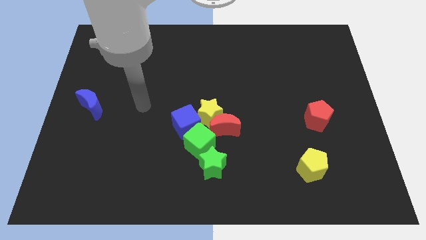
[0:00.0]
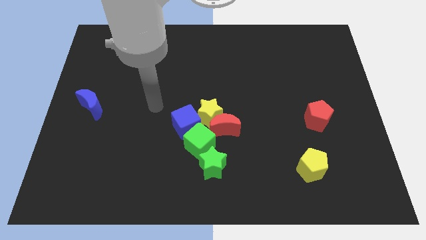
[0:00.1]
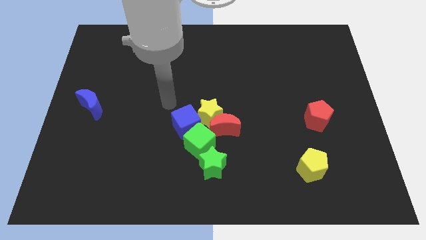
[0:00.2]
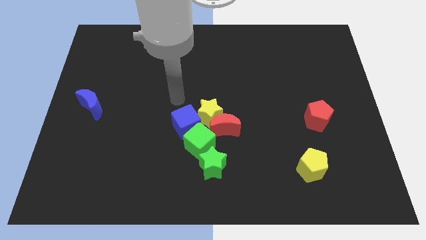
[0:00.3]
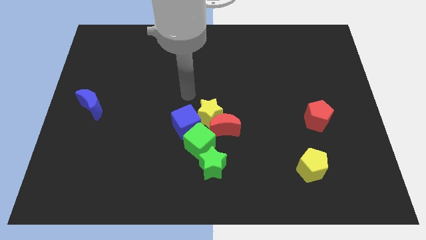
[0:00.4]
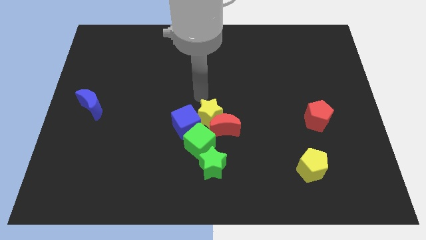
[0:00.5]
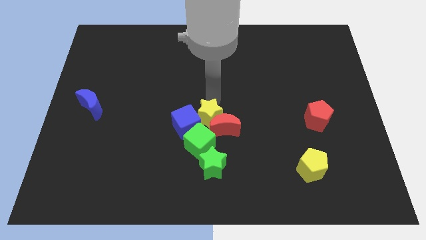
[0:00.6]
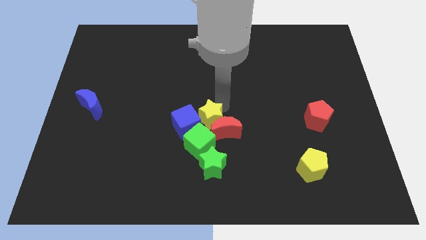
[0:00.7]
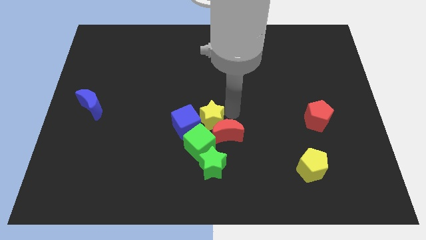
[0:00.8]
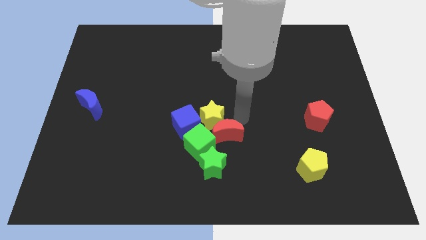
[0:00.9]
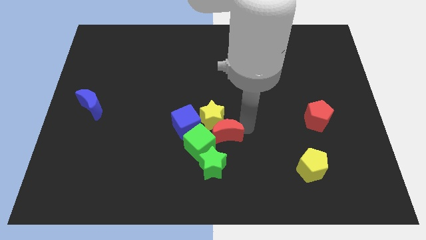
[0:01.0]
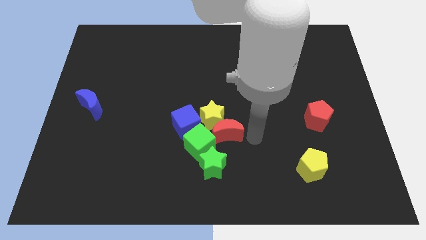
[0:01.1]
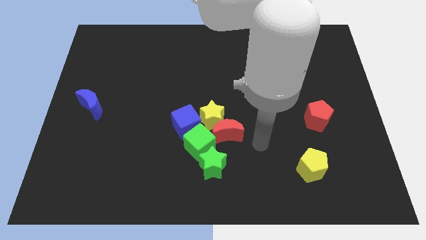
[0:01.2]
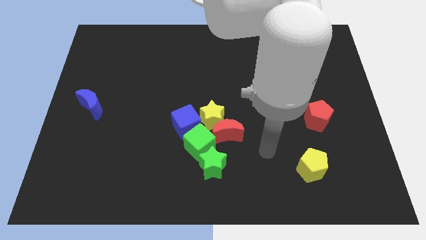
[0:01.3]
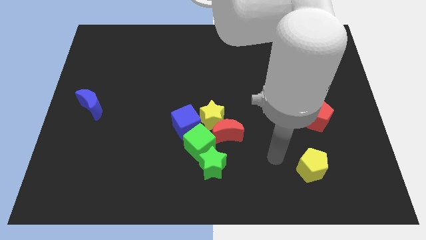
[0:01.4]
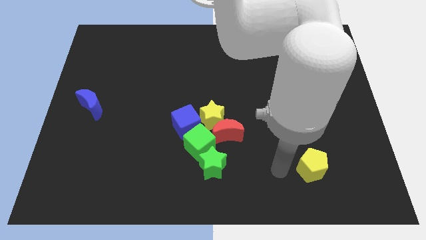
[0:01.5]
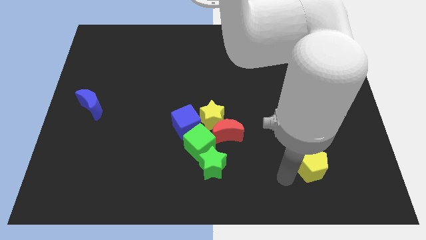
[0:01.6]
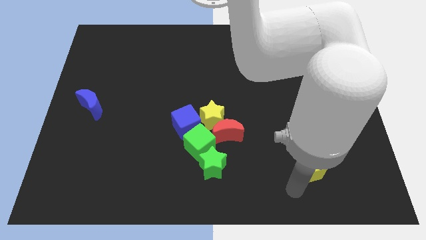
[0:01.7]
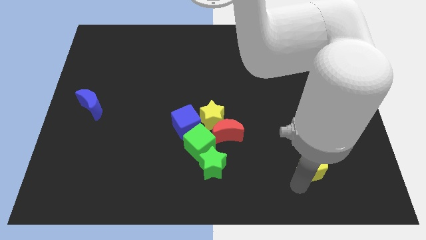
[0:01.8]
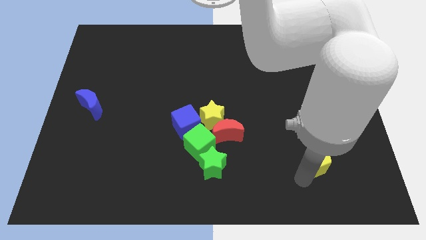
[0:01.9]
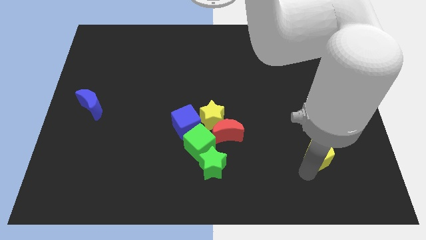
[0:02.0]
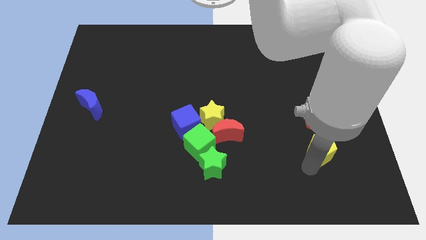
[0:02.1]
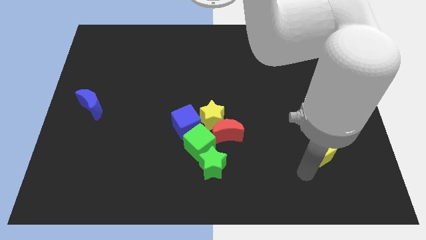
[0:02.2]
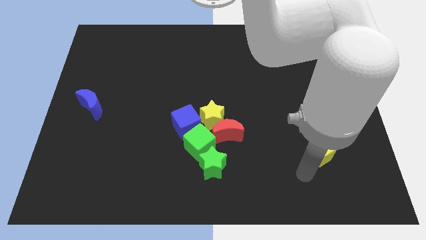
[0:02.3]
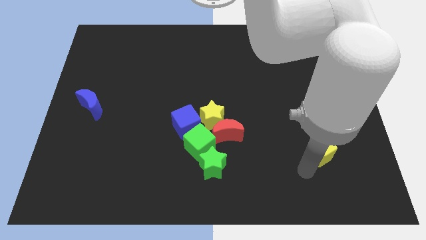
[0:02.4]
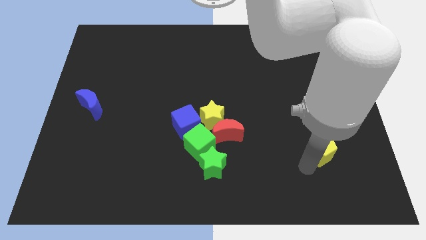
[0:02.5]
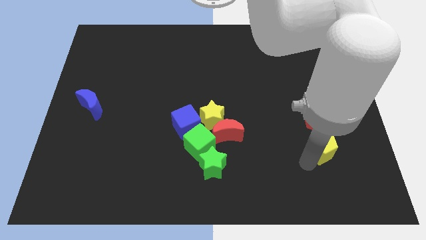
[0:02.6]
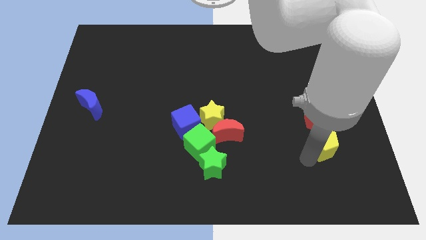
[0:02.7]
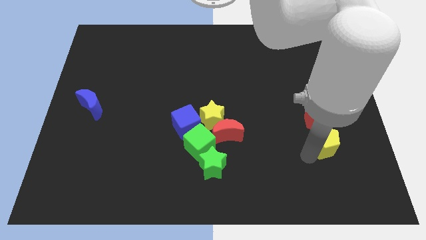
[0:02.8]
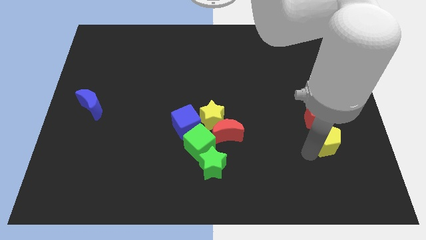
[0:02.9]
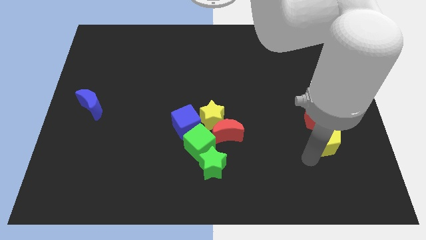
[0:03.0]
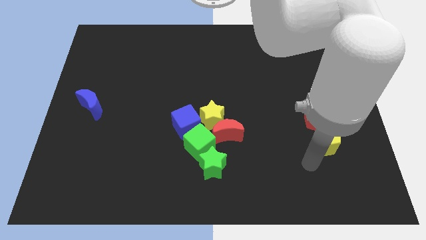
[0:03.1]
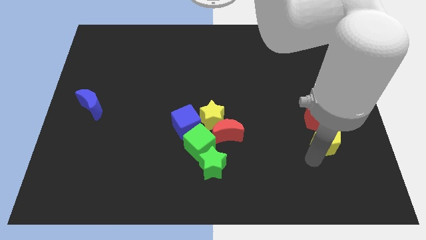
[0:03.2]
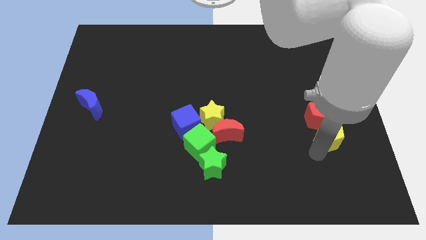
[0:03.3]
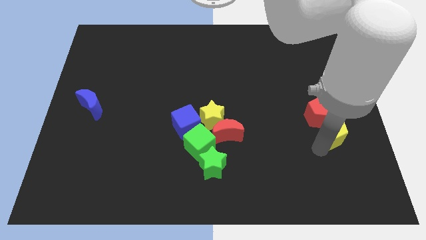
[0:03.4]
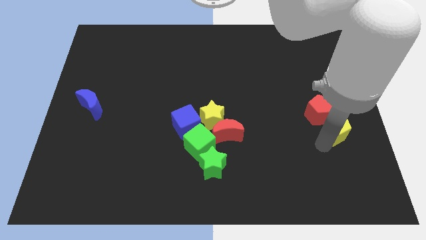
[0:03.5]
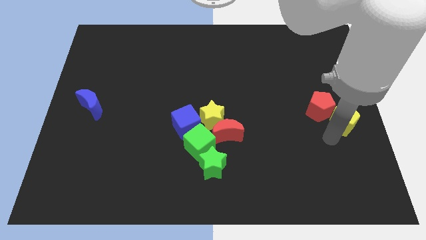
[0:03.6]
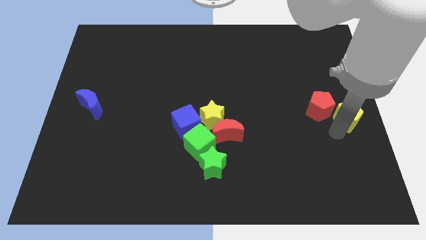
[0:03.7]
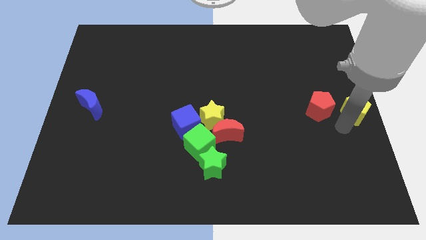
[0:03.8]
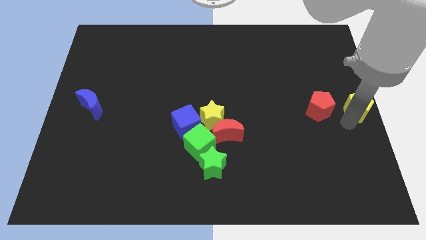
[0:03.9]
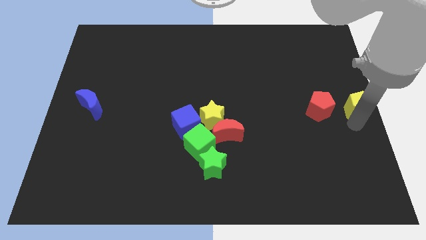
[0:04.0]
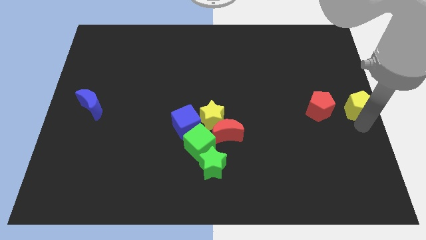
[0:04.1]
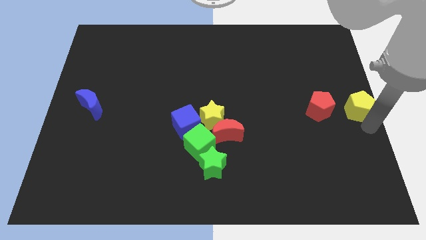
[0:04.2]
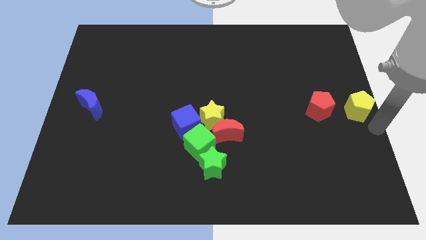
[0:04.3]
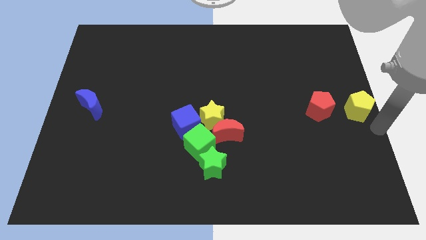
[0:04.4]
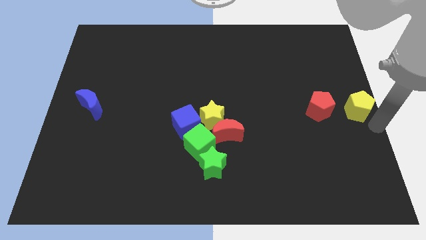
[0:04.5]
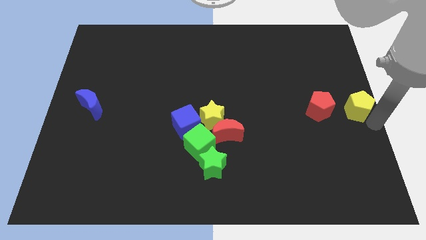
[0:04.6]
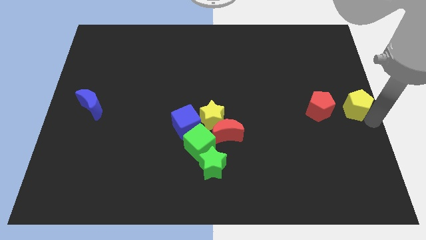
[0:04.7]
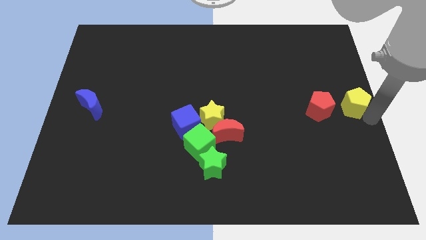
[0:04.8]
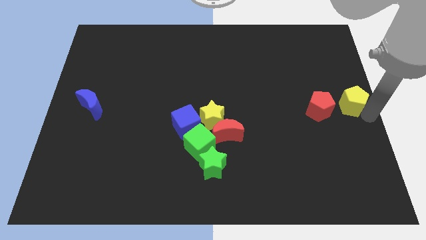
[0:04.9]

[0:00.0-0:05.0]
move the yellow pentagon to the top right side of the red pentagon

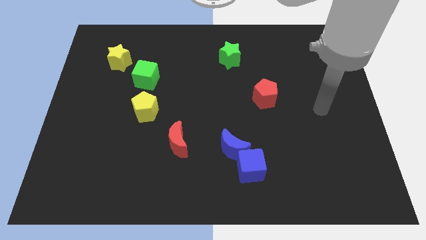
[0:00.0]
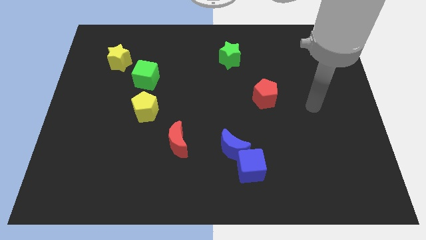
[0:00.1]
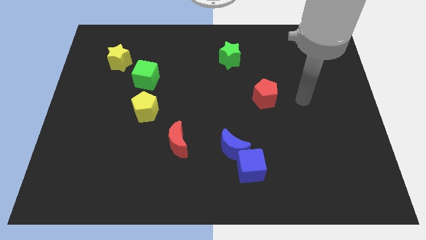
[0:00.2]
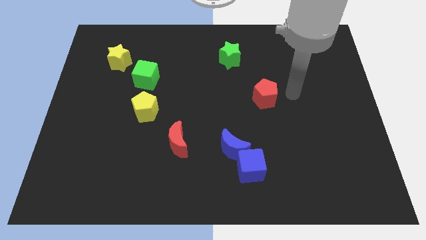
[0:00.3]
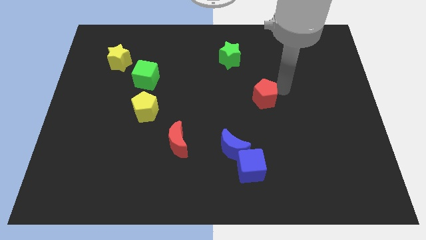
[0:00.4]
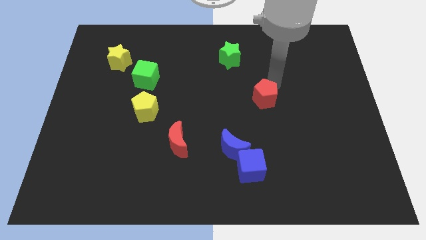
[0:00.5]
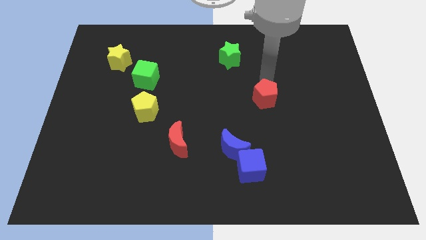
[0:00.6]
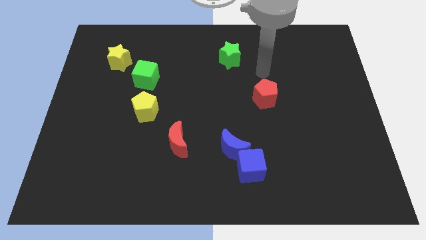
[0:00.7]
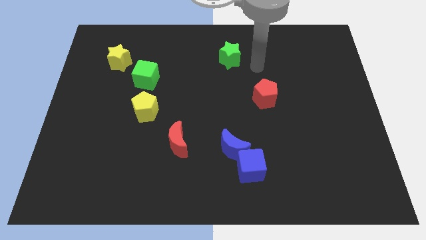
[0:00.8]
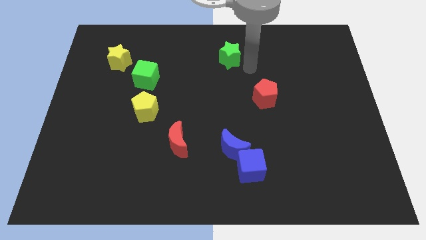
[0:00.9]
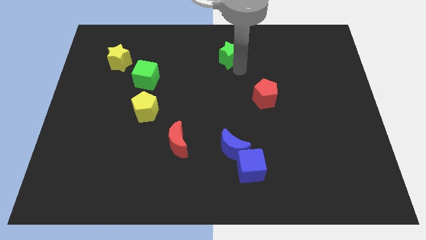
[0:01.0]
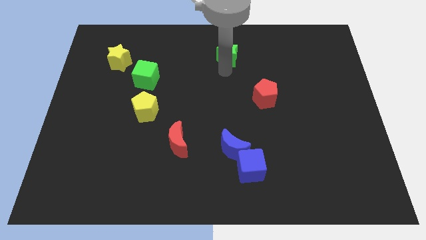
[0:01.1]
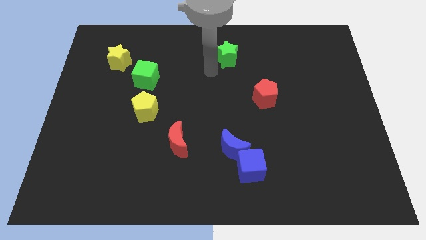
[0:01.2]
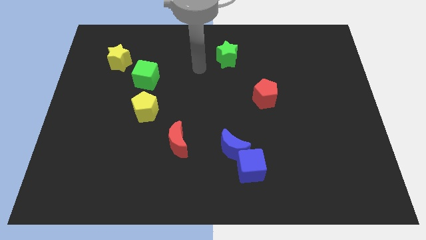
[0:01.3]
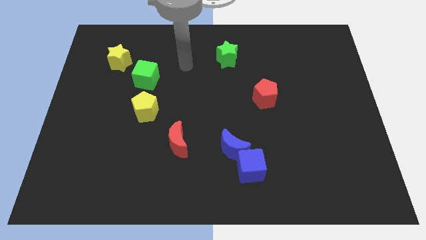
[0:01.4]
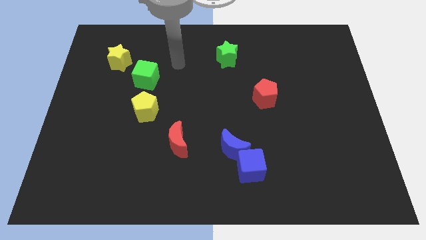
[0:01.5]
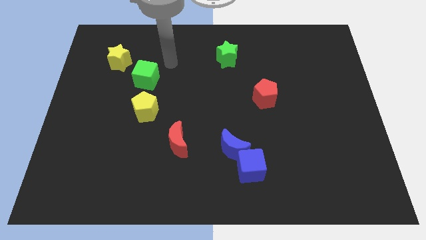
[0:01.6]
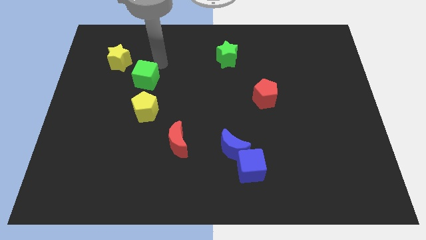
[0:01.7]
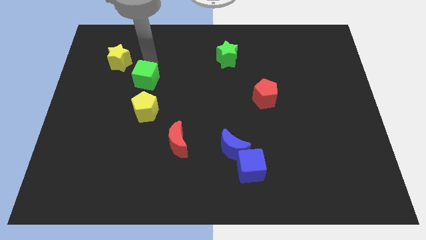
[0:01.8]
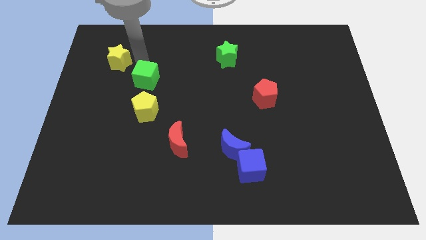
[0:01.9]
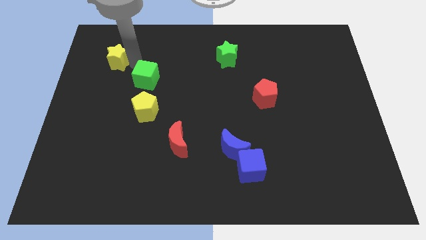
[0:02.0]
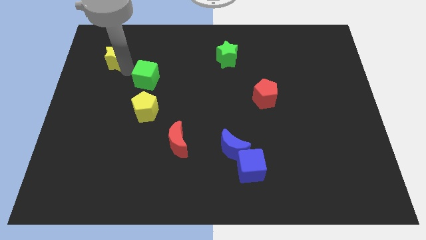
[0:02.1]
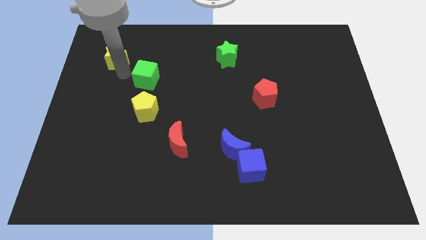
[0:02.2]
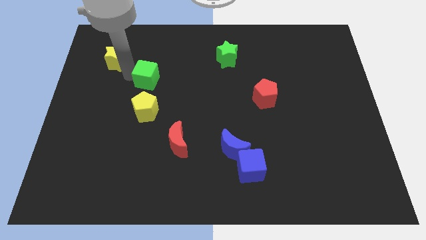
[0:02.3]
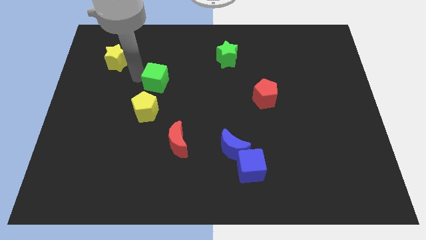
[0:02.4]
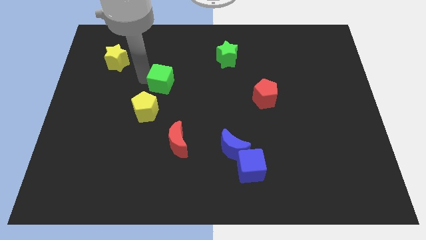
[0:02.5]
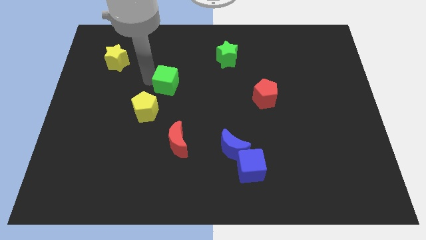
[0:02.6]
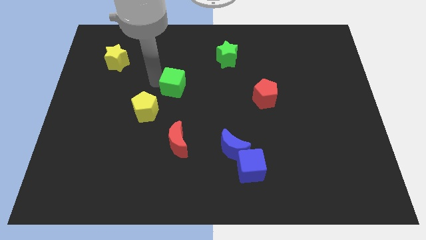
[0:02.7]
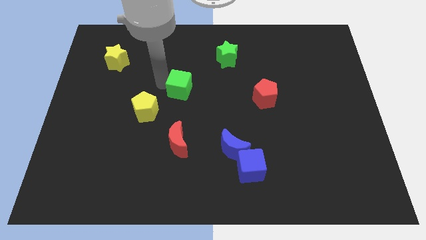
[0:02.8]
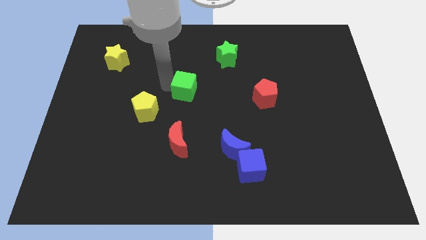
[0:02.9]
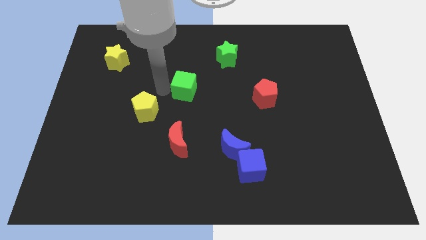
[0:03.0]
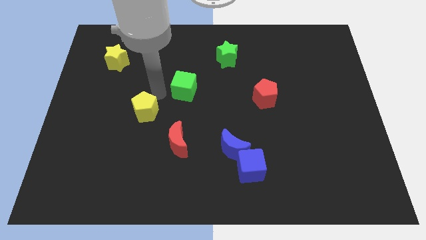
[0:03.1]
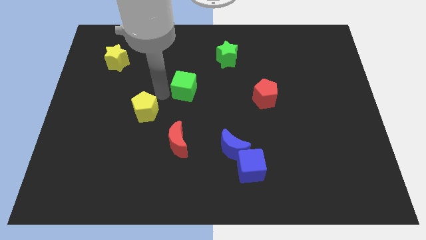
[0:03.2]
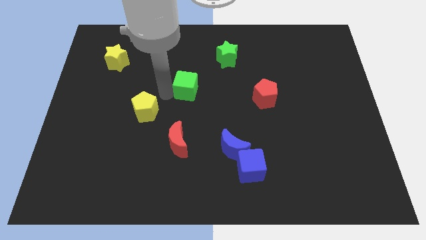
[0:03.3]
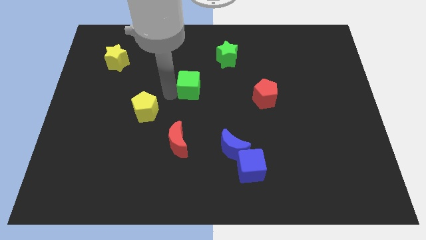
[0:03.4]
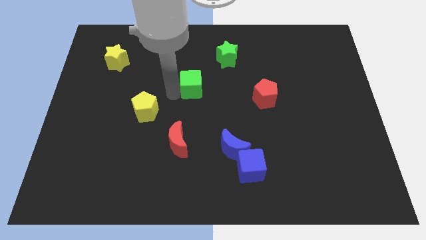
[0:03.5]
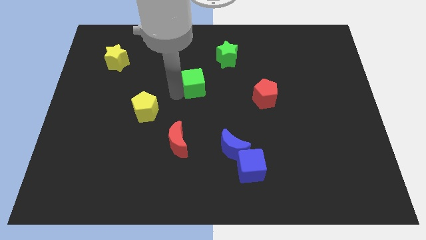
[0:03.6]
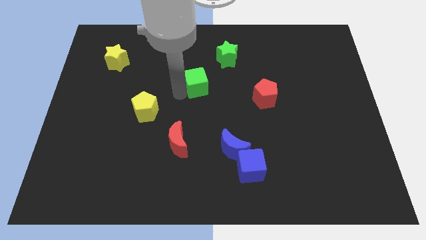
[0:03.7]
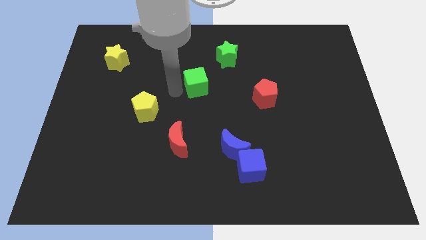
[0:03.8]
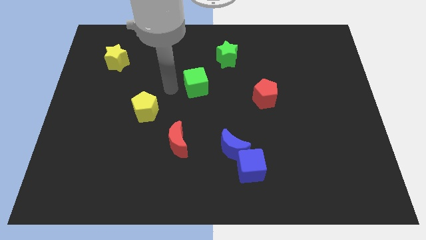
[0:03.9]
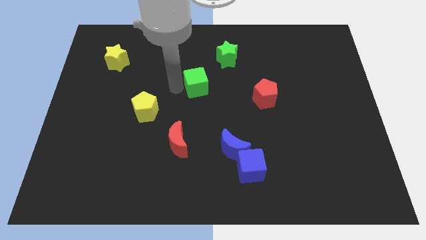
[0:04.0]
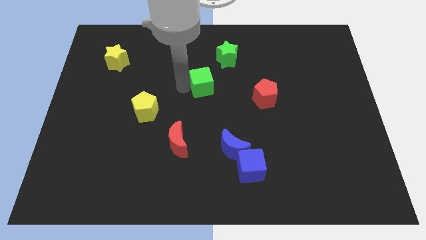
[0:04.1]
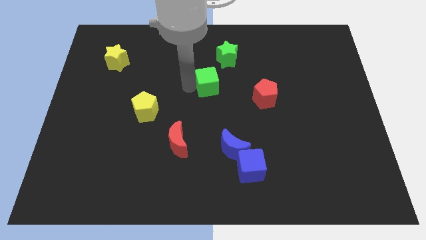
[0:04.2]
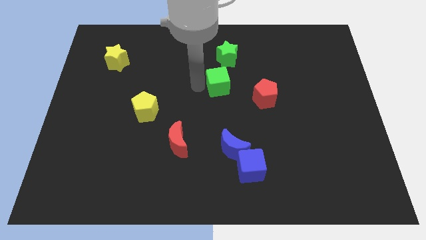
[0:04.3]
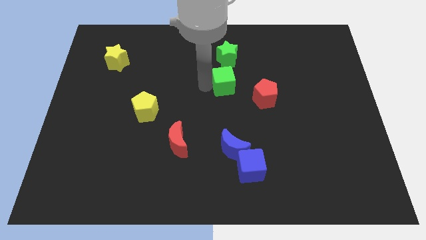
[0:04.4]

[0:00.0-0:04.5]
move the green cube diagonally up and to the left of the red pentagon
